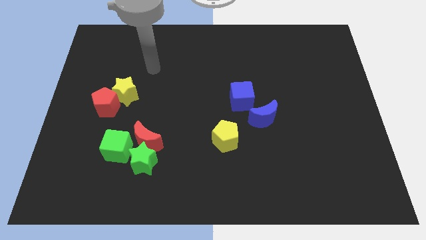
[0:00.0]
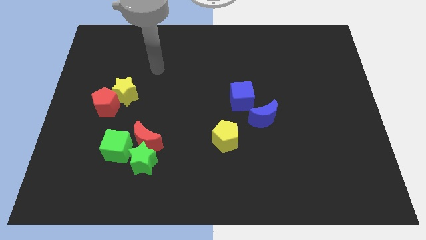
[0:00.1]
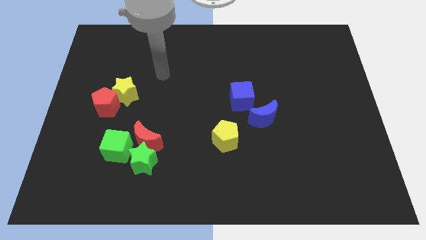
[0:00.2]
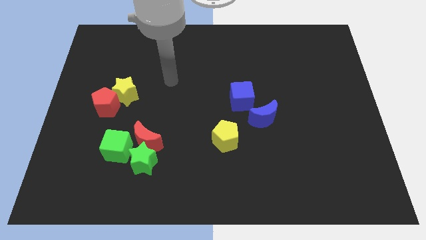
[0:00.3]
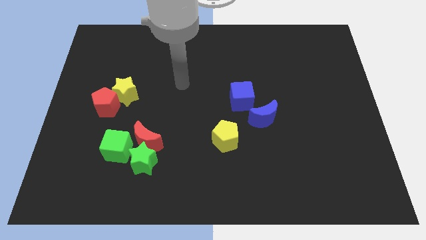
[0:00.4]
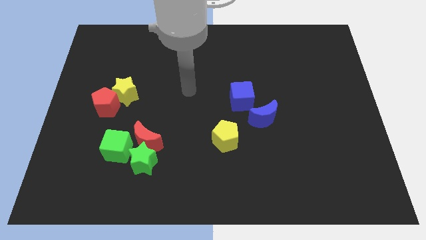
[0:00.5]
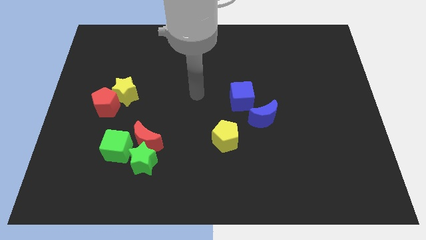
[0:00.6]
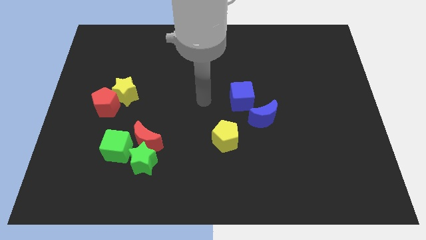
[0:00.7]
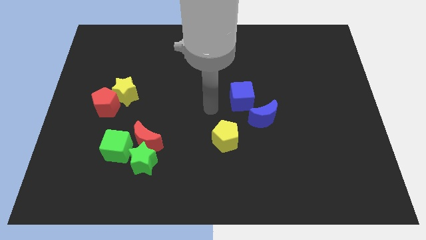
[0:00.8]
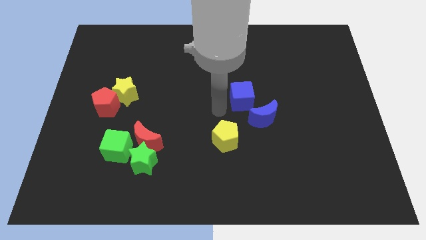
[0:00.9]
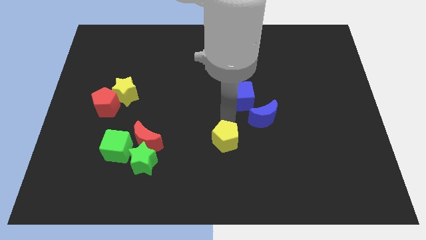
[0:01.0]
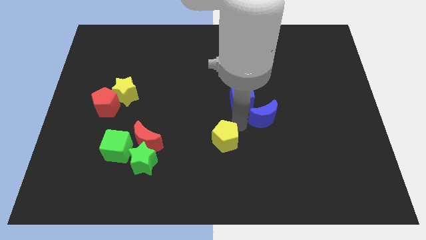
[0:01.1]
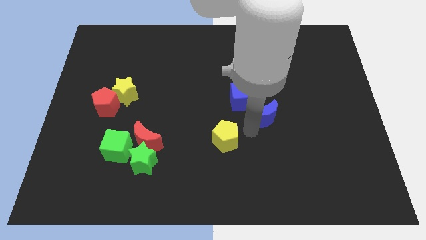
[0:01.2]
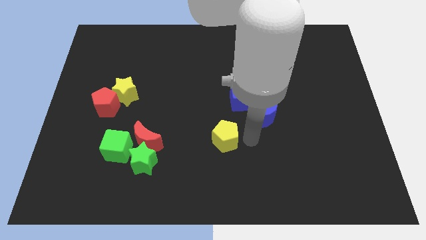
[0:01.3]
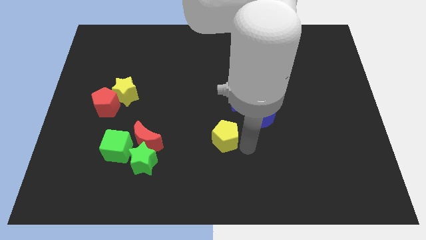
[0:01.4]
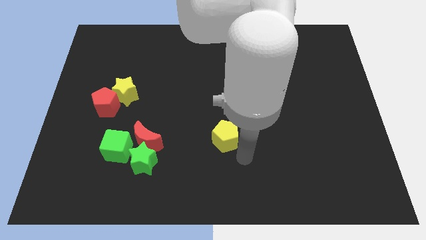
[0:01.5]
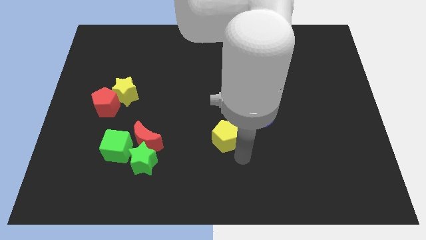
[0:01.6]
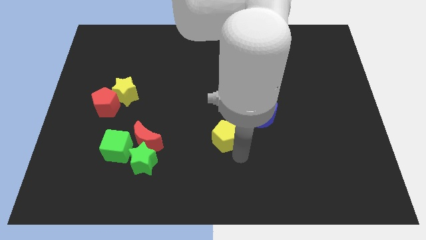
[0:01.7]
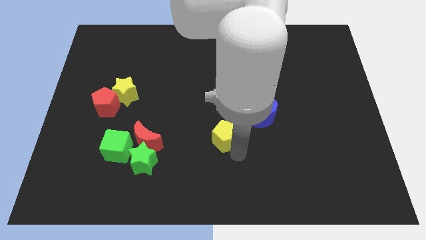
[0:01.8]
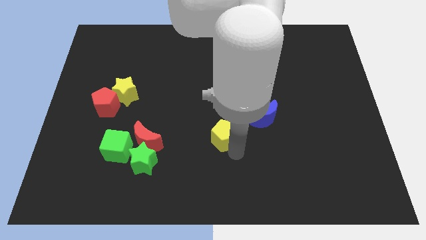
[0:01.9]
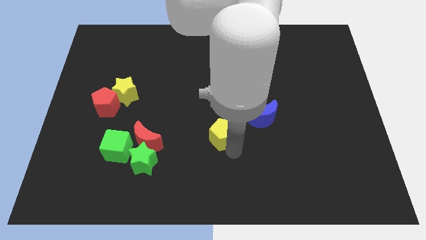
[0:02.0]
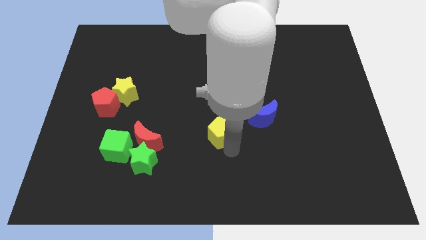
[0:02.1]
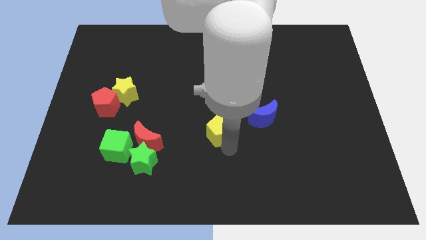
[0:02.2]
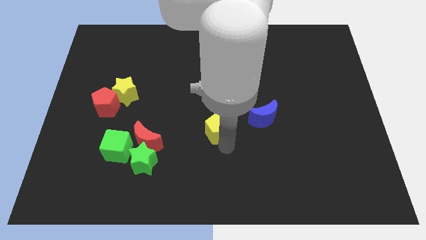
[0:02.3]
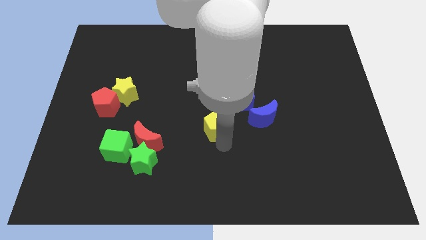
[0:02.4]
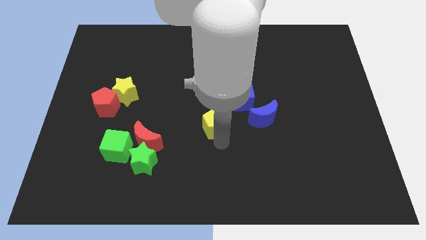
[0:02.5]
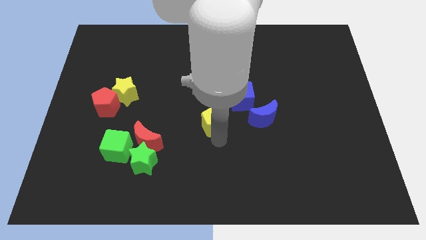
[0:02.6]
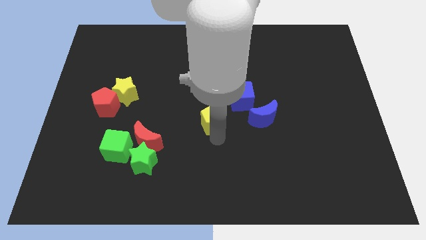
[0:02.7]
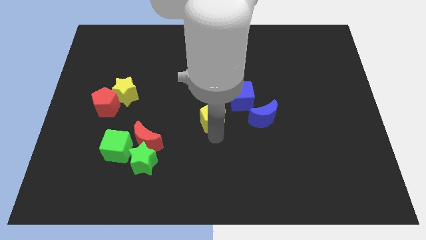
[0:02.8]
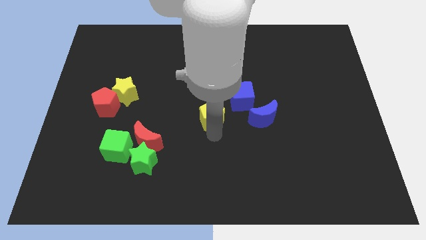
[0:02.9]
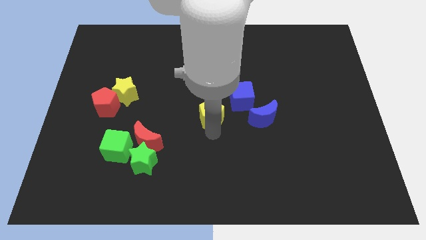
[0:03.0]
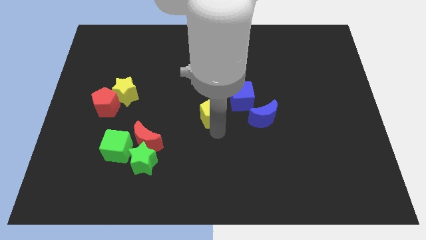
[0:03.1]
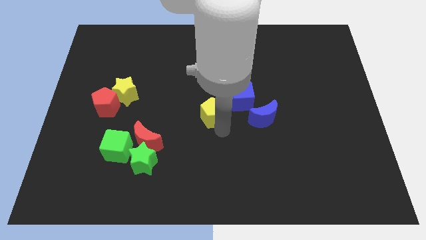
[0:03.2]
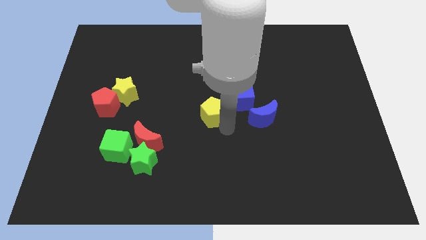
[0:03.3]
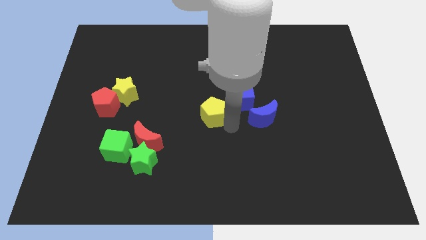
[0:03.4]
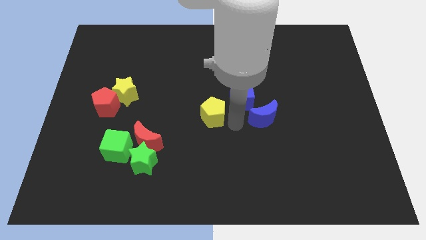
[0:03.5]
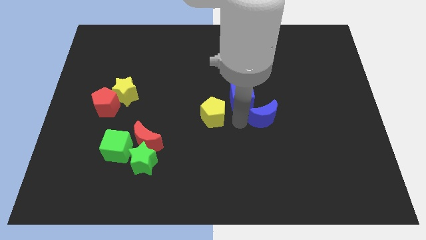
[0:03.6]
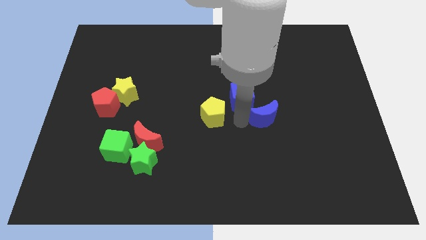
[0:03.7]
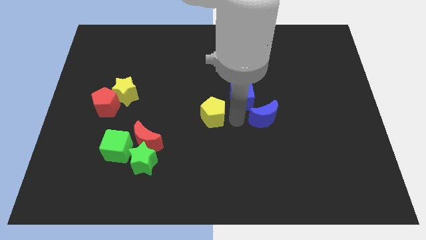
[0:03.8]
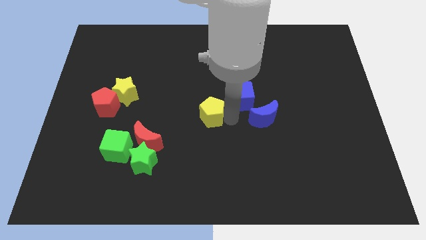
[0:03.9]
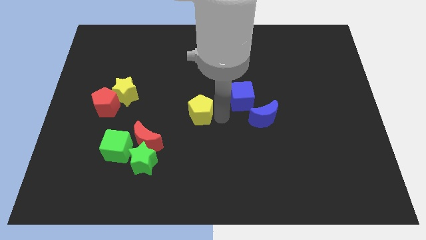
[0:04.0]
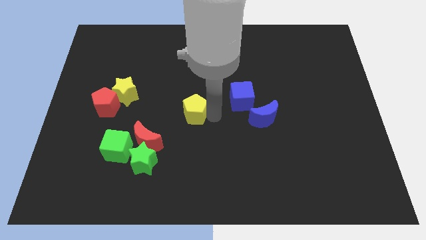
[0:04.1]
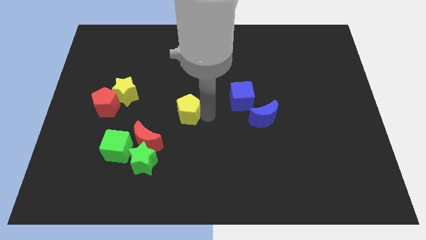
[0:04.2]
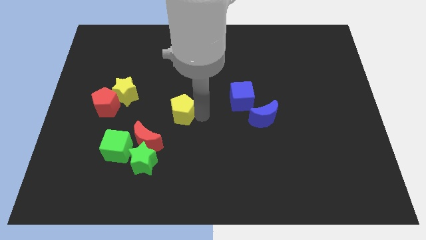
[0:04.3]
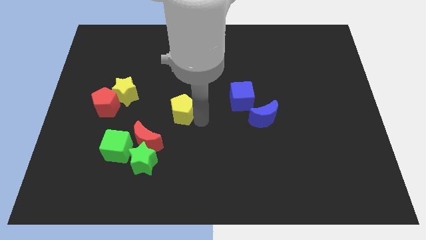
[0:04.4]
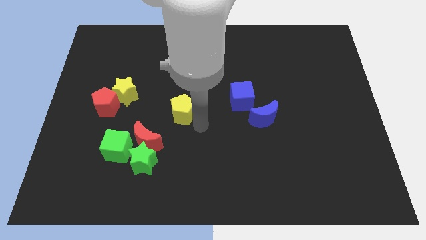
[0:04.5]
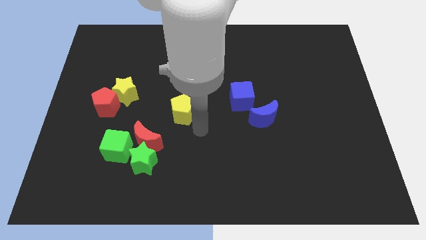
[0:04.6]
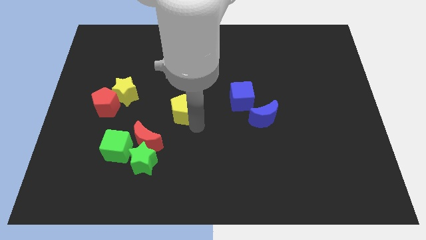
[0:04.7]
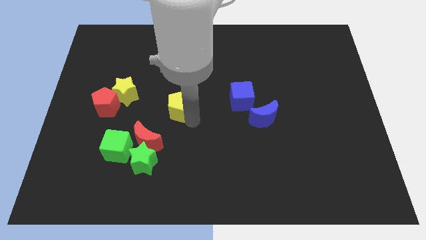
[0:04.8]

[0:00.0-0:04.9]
put the yellow pentagon right of the yellow star

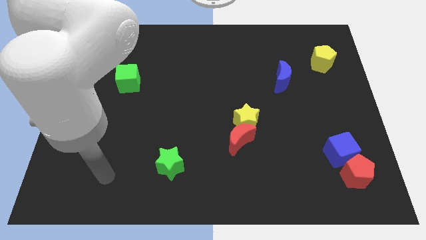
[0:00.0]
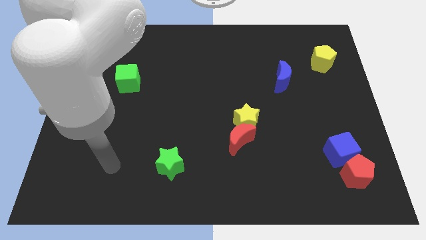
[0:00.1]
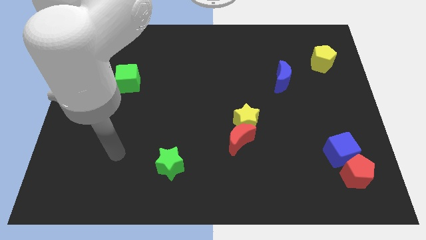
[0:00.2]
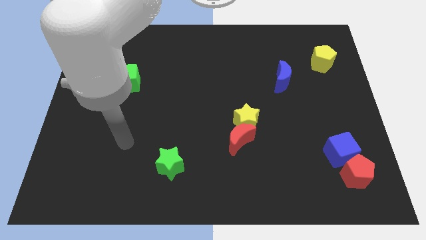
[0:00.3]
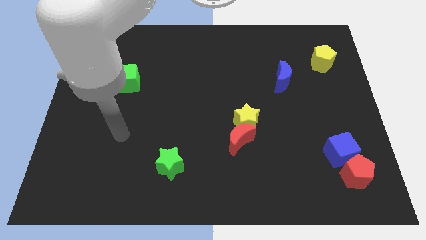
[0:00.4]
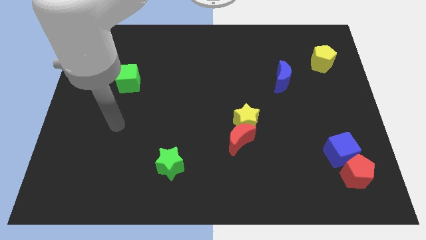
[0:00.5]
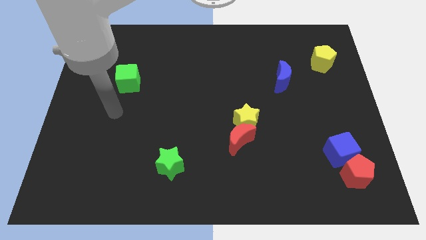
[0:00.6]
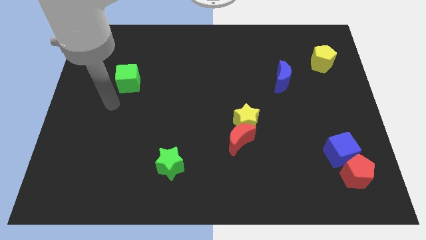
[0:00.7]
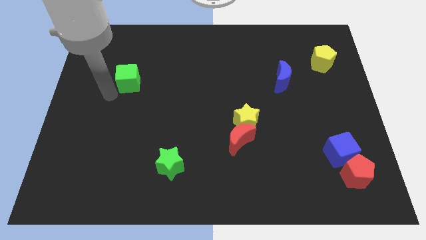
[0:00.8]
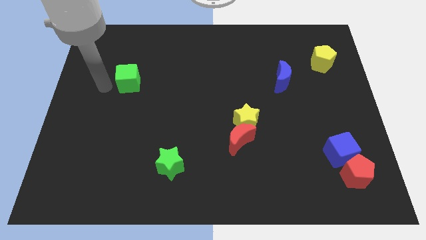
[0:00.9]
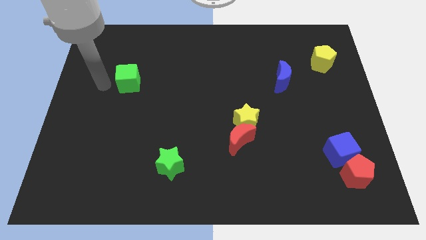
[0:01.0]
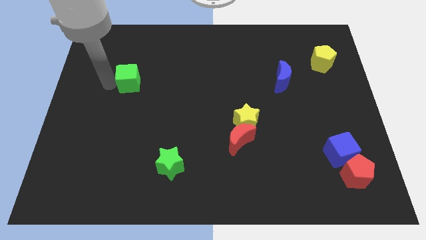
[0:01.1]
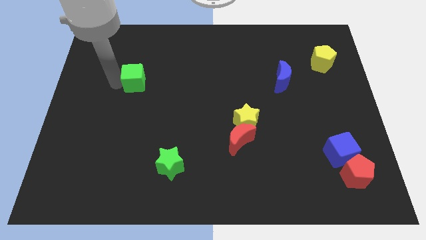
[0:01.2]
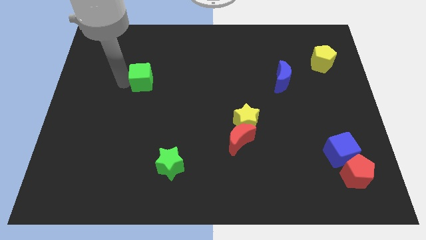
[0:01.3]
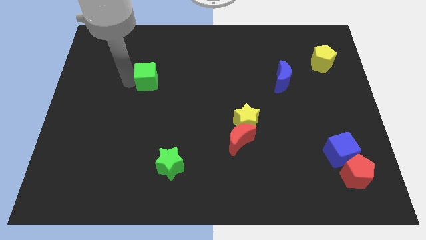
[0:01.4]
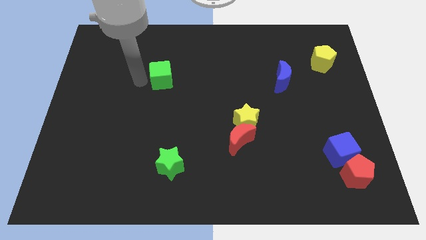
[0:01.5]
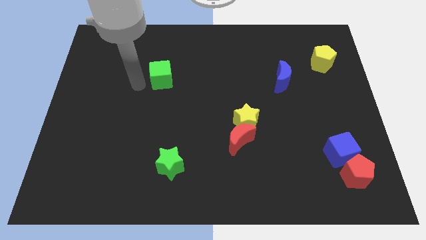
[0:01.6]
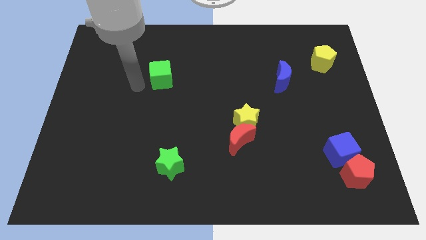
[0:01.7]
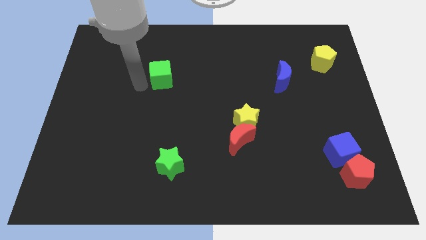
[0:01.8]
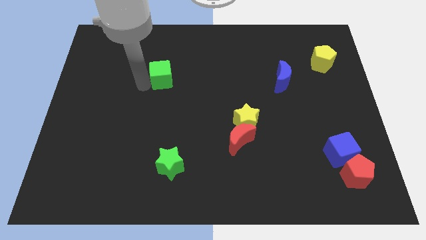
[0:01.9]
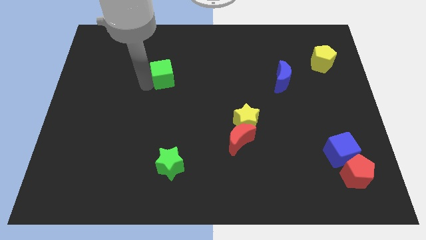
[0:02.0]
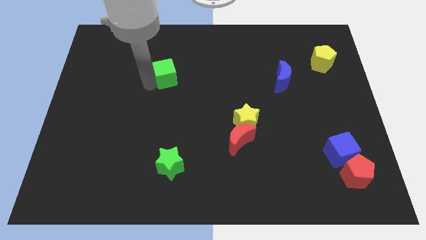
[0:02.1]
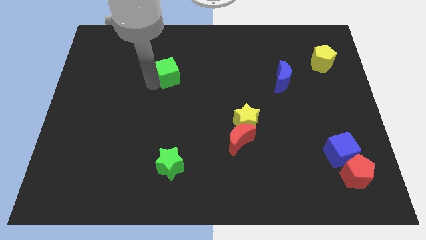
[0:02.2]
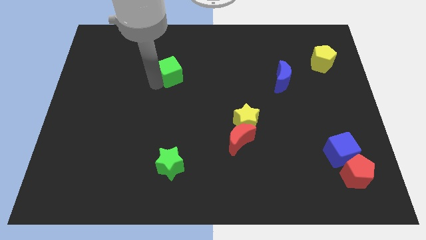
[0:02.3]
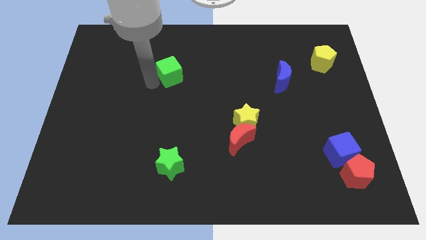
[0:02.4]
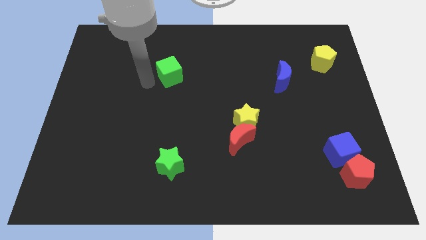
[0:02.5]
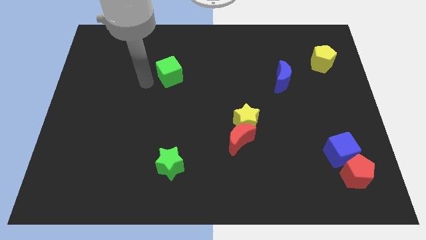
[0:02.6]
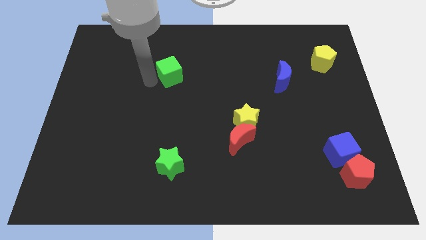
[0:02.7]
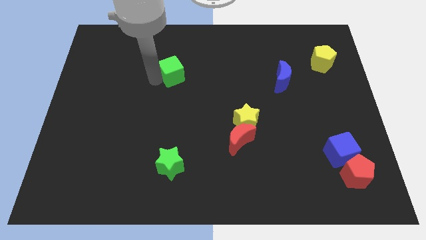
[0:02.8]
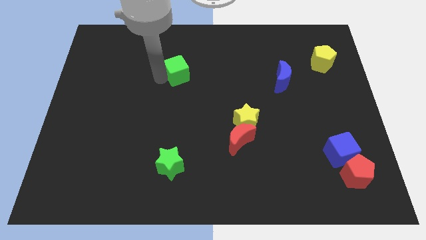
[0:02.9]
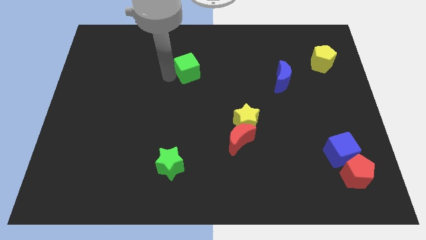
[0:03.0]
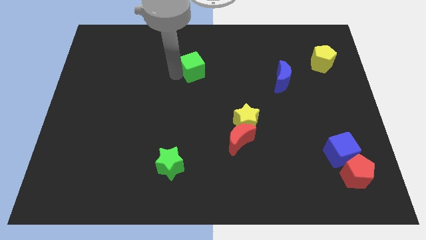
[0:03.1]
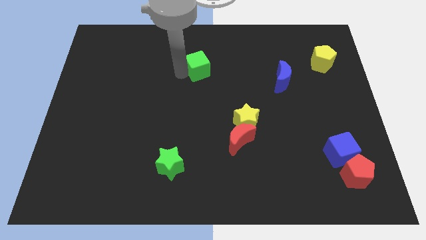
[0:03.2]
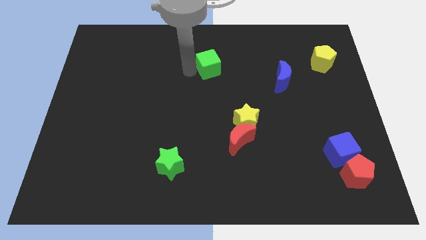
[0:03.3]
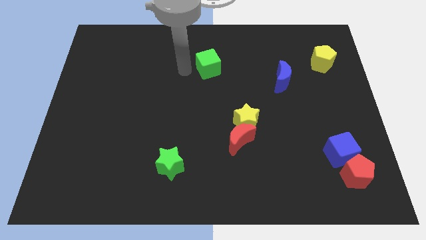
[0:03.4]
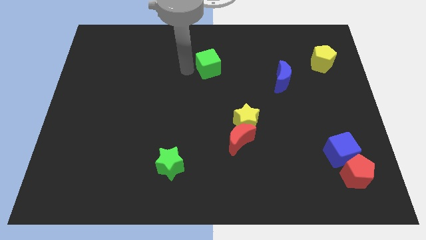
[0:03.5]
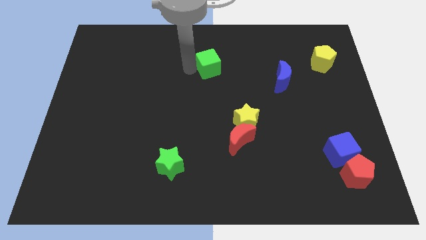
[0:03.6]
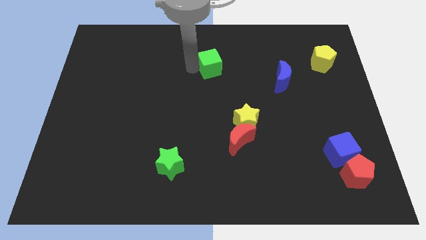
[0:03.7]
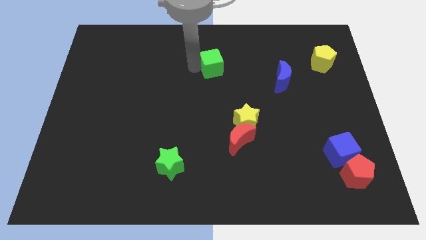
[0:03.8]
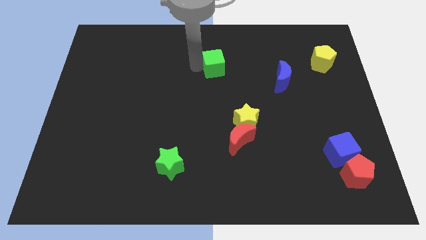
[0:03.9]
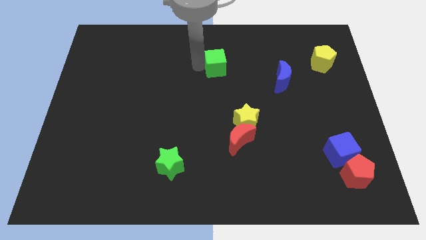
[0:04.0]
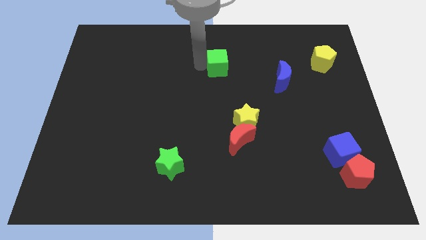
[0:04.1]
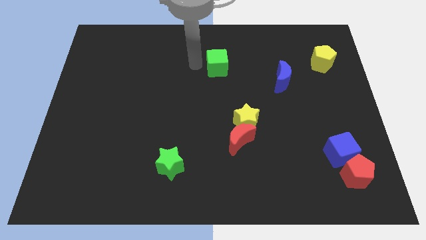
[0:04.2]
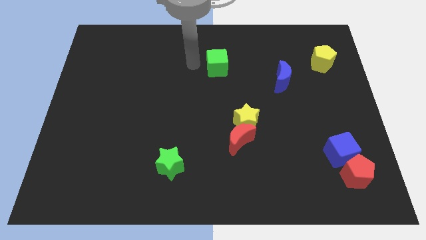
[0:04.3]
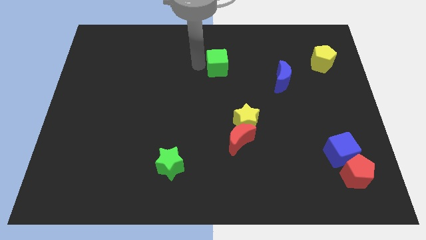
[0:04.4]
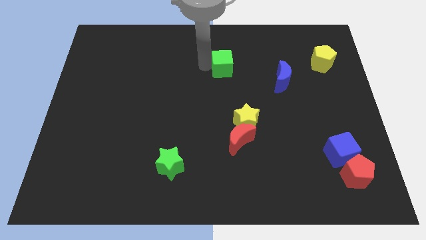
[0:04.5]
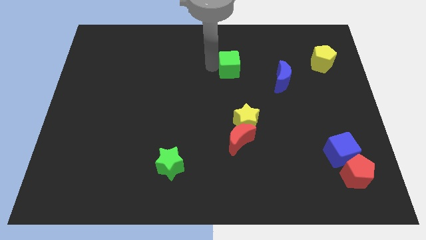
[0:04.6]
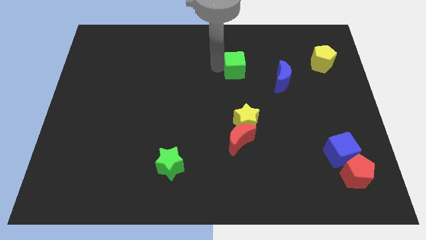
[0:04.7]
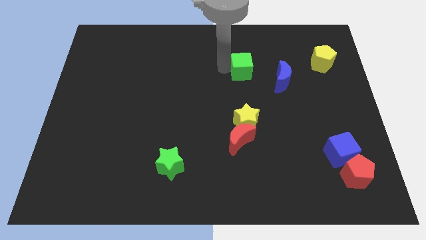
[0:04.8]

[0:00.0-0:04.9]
move the green cube to the top left of the blue moon
